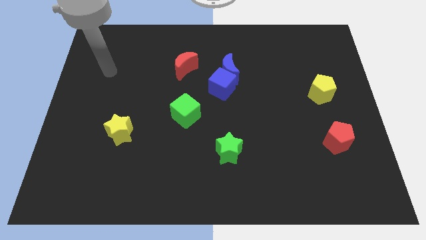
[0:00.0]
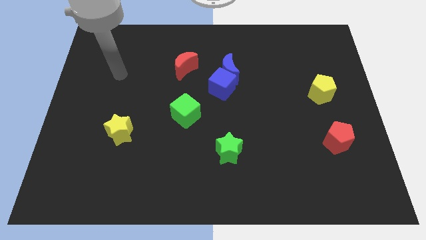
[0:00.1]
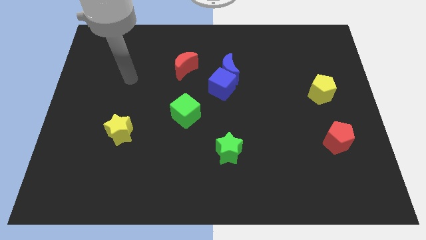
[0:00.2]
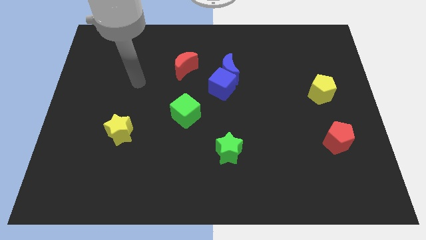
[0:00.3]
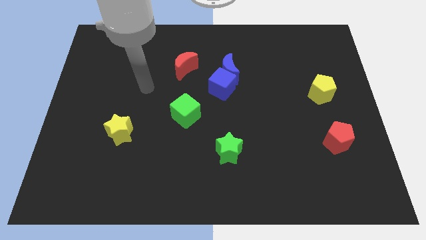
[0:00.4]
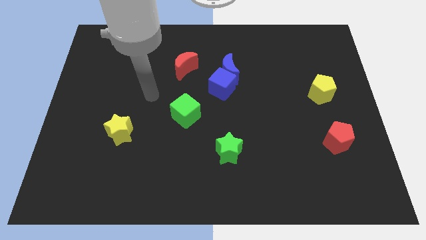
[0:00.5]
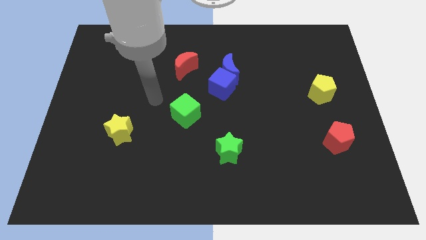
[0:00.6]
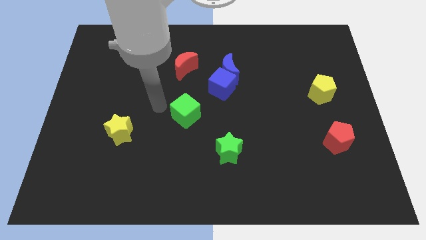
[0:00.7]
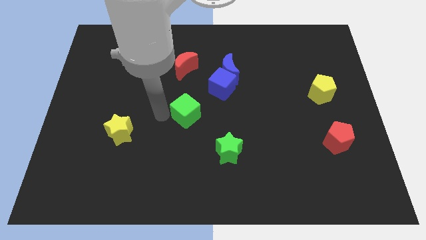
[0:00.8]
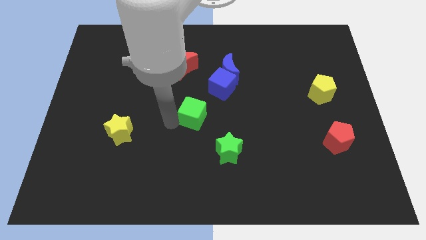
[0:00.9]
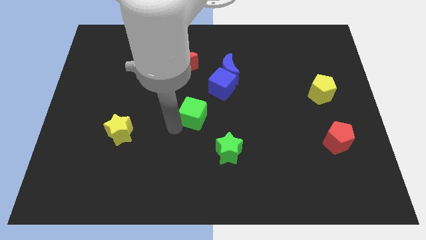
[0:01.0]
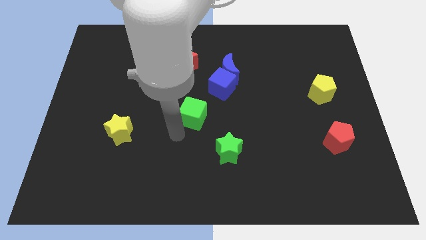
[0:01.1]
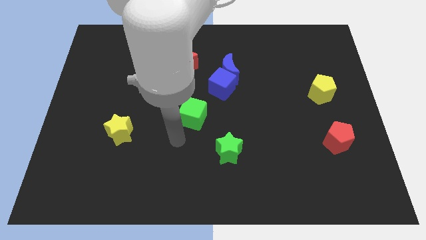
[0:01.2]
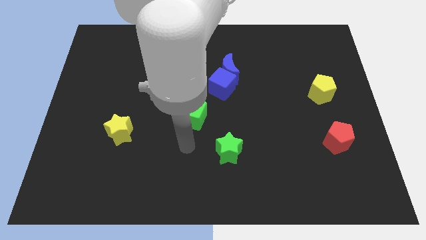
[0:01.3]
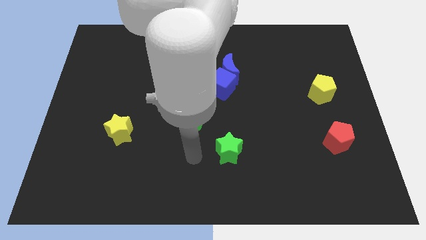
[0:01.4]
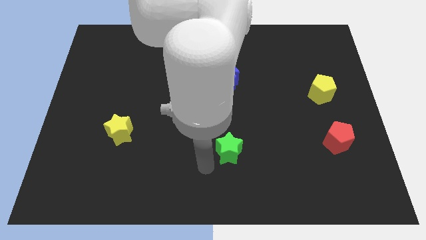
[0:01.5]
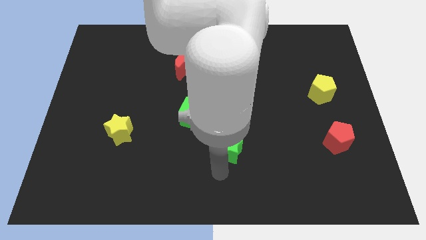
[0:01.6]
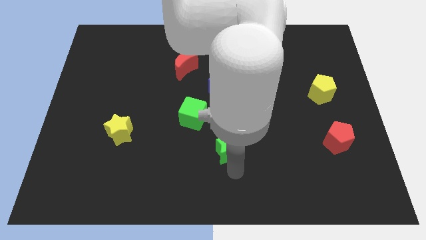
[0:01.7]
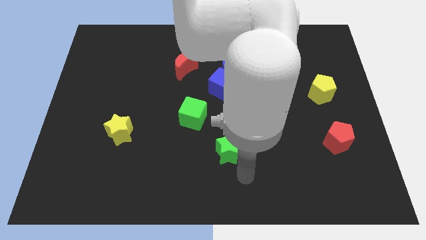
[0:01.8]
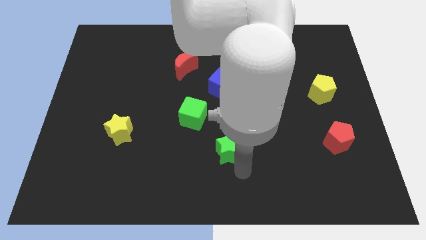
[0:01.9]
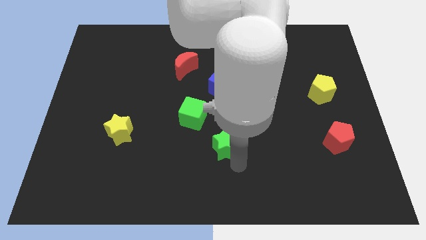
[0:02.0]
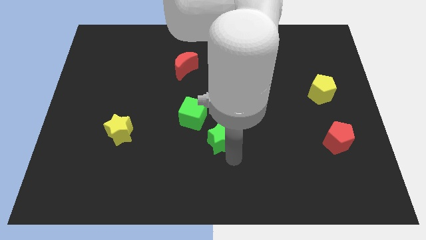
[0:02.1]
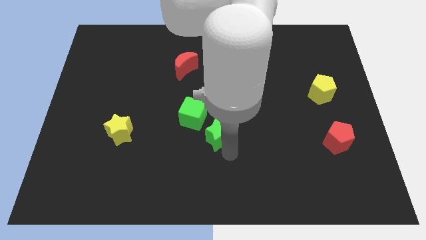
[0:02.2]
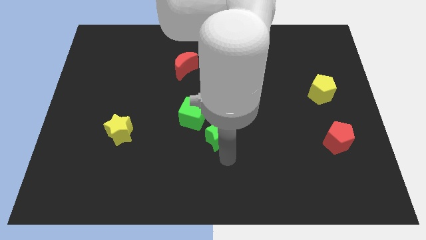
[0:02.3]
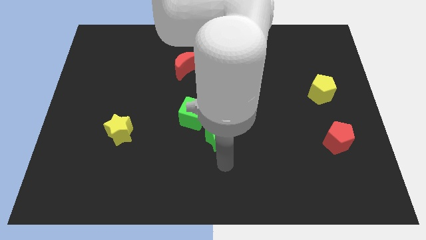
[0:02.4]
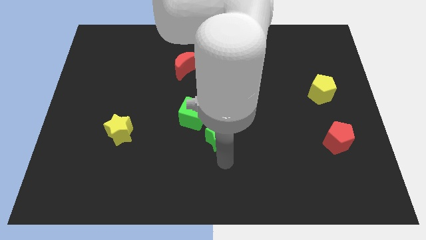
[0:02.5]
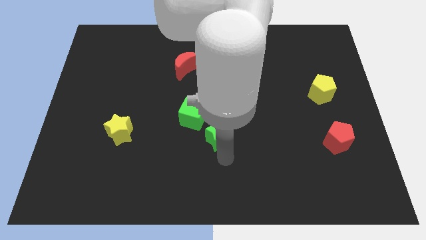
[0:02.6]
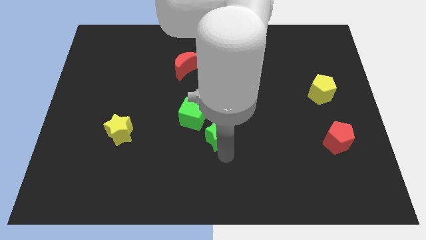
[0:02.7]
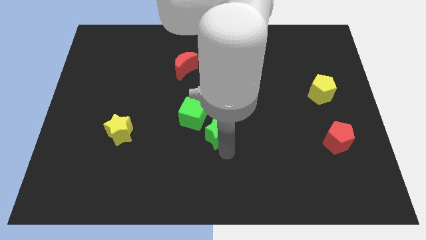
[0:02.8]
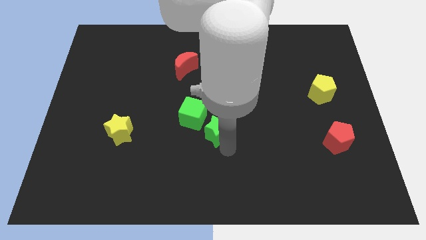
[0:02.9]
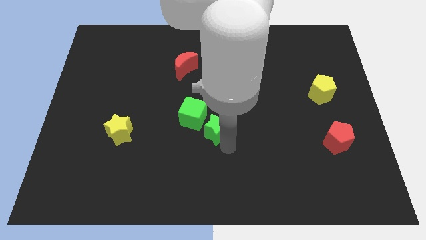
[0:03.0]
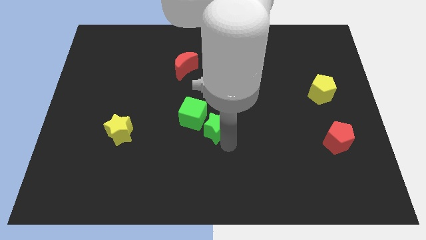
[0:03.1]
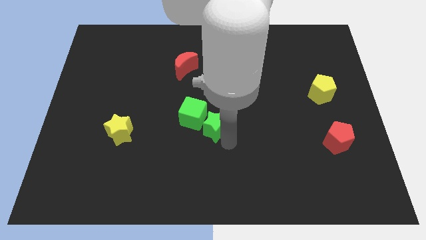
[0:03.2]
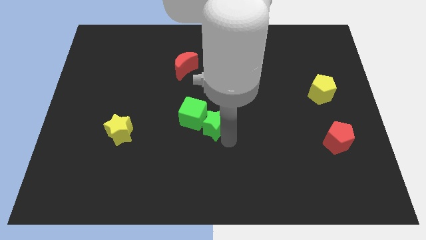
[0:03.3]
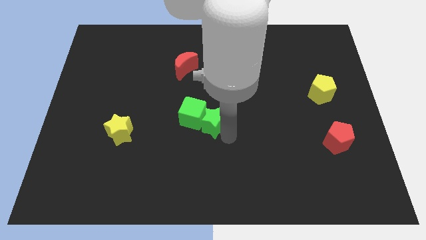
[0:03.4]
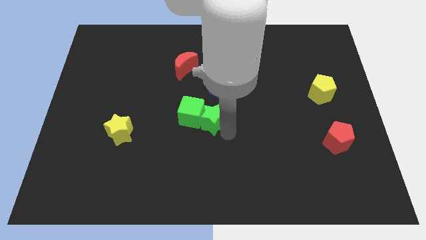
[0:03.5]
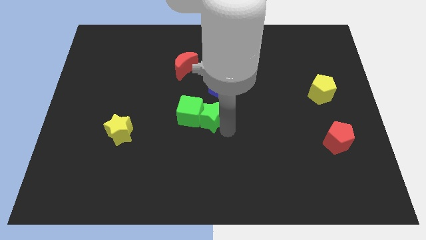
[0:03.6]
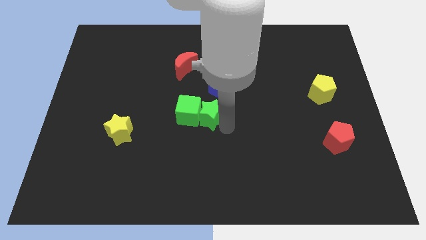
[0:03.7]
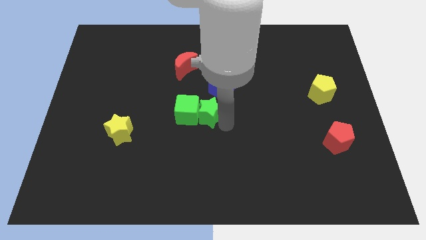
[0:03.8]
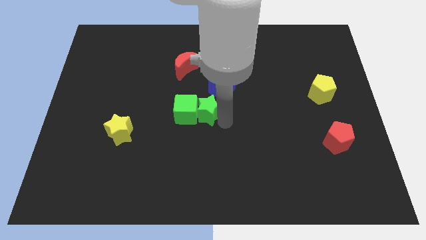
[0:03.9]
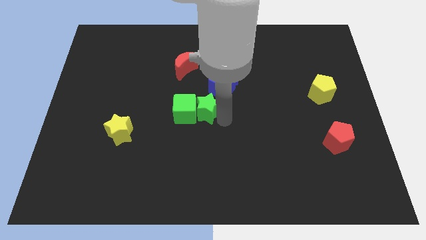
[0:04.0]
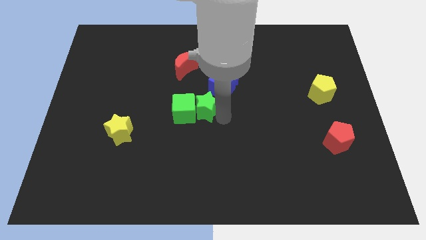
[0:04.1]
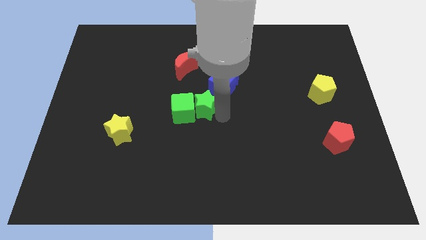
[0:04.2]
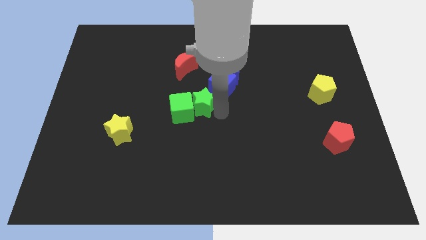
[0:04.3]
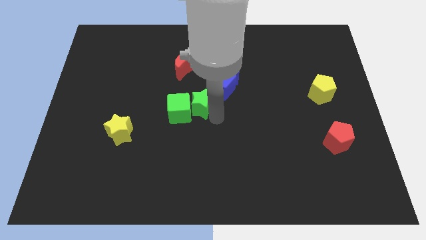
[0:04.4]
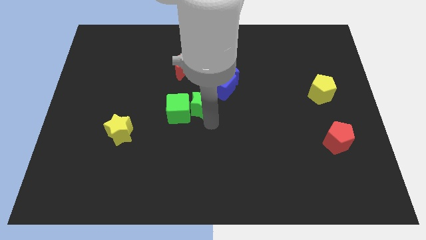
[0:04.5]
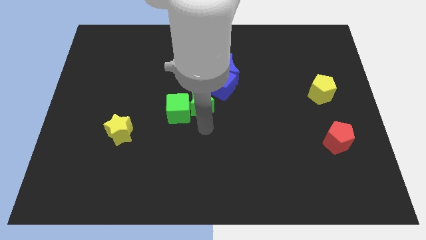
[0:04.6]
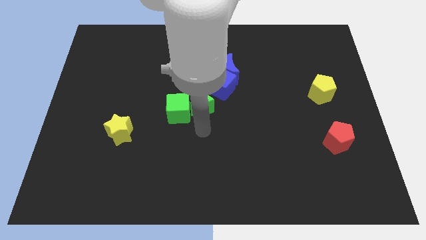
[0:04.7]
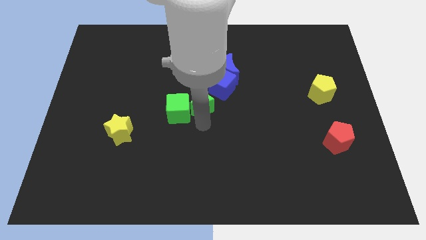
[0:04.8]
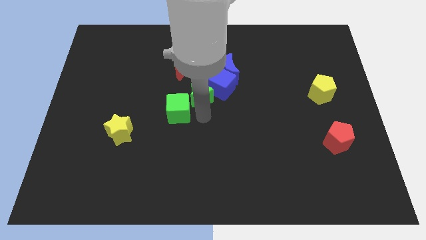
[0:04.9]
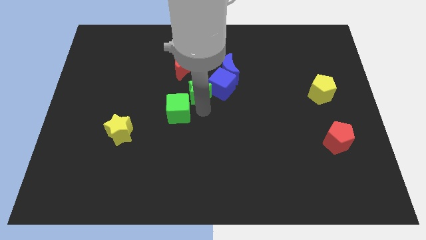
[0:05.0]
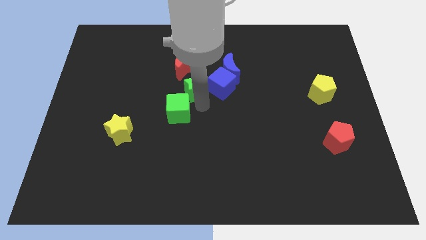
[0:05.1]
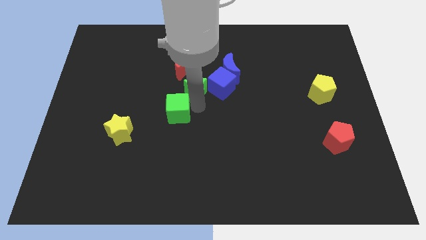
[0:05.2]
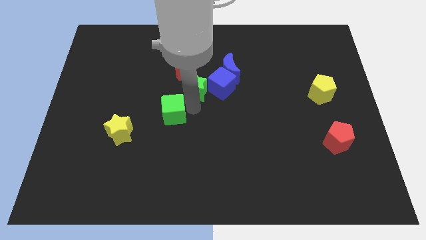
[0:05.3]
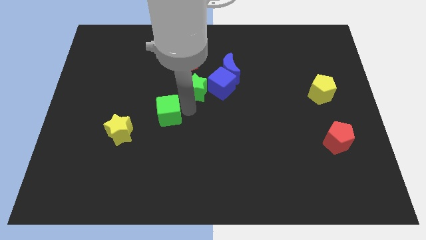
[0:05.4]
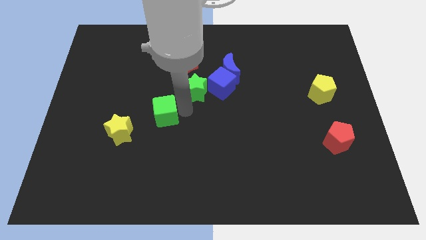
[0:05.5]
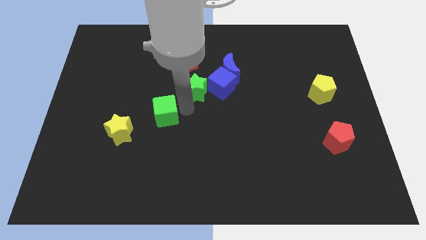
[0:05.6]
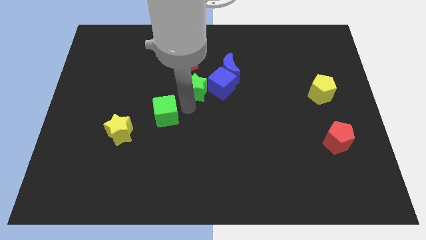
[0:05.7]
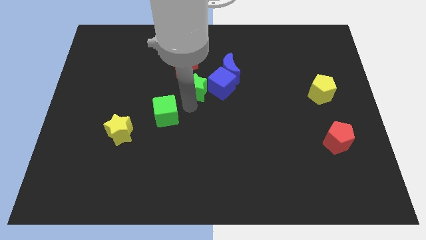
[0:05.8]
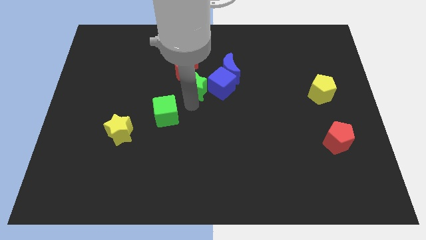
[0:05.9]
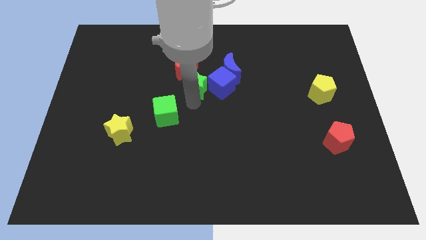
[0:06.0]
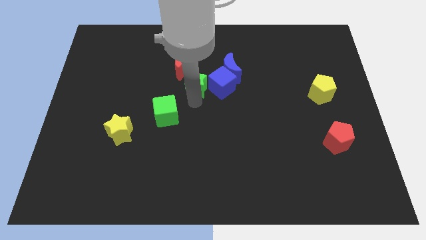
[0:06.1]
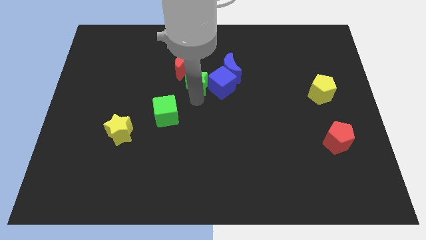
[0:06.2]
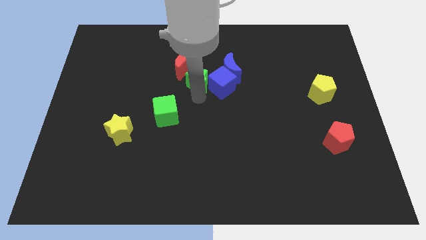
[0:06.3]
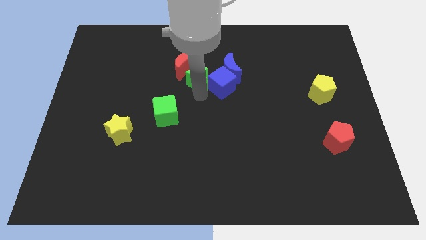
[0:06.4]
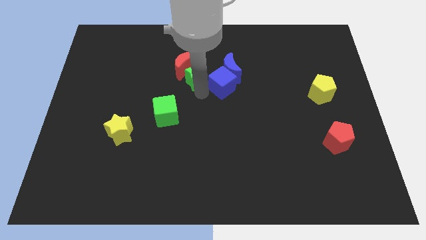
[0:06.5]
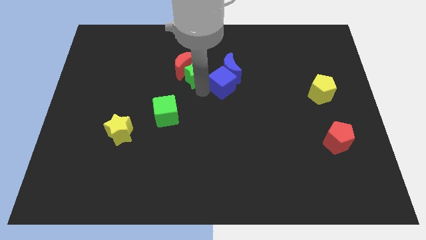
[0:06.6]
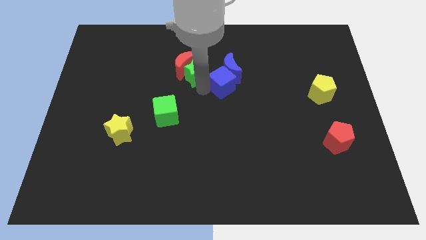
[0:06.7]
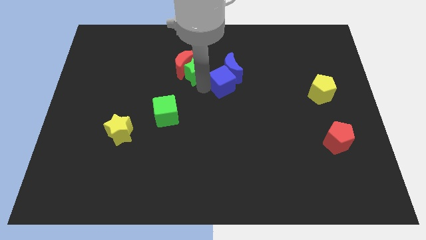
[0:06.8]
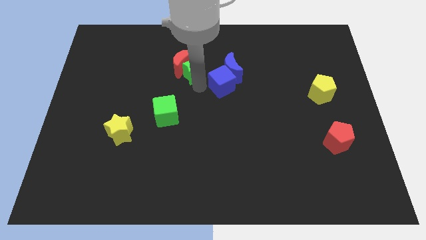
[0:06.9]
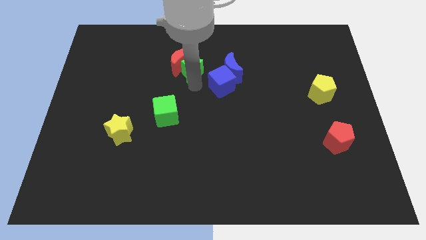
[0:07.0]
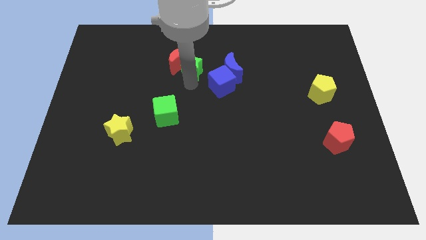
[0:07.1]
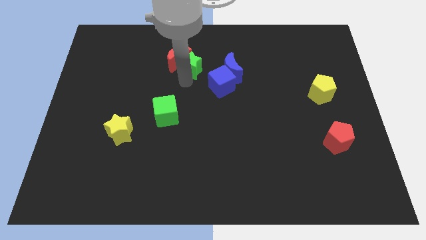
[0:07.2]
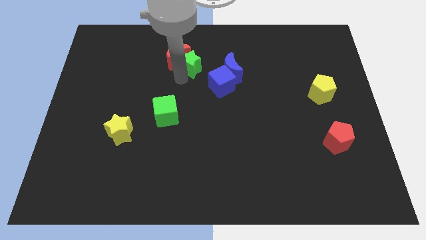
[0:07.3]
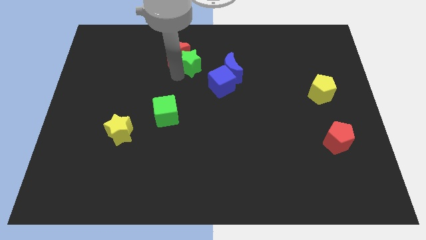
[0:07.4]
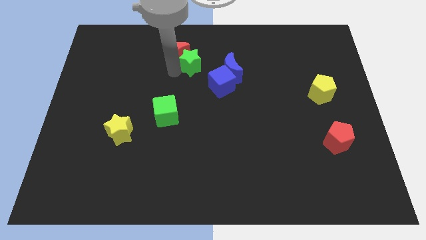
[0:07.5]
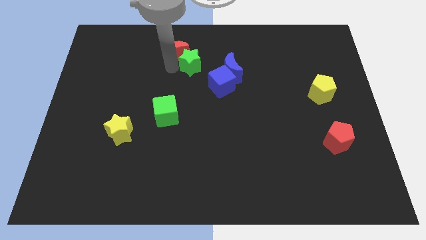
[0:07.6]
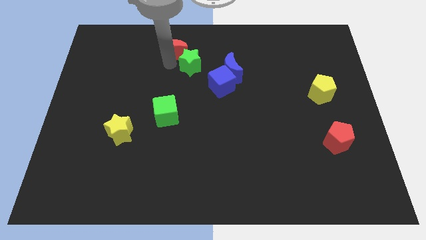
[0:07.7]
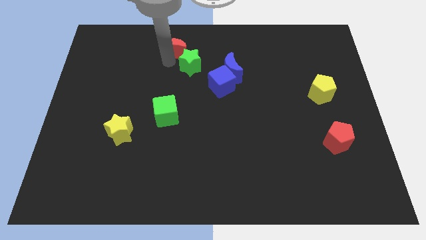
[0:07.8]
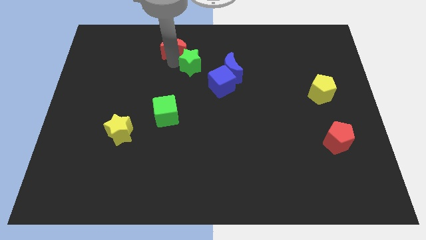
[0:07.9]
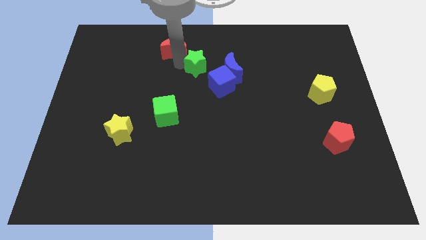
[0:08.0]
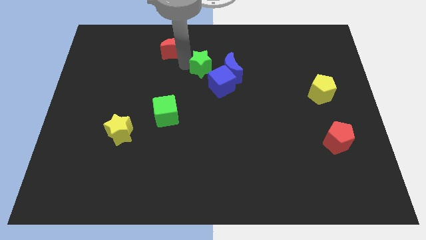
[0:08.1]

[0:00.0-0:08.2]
move the green star to the top of the blue cube
